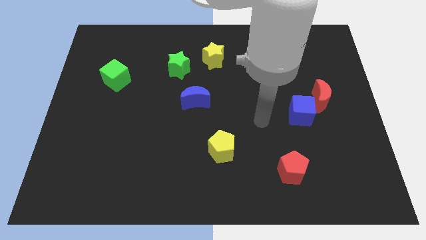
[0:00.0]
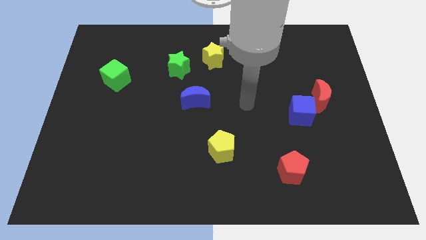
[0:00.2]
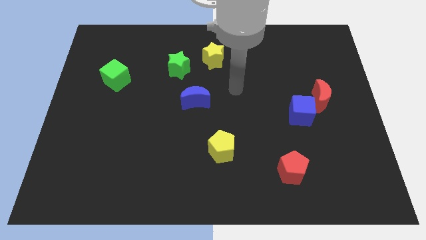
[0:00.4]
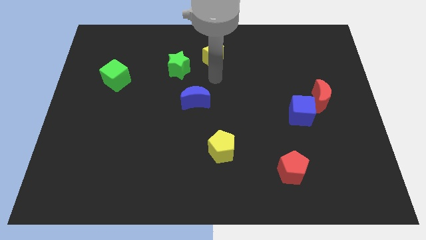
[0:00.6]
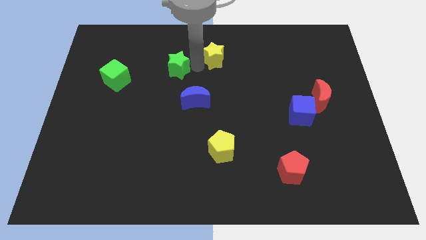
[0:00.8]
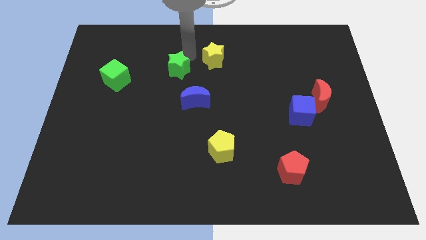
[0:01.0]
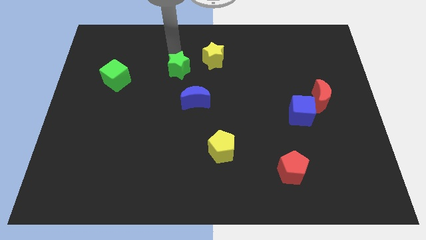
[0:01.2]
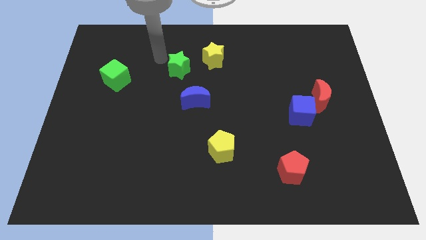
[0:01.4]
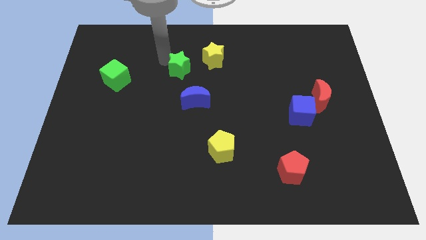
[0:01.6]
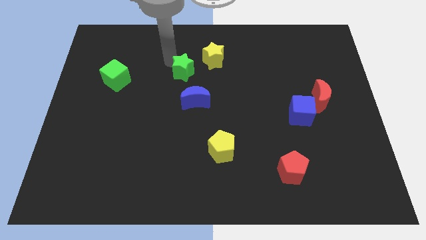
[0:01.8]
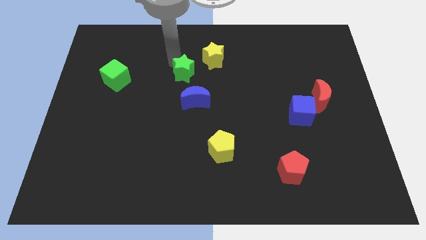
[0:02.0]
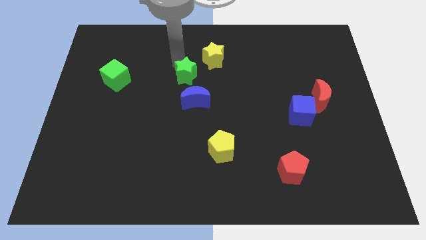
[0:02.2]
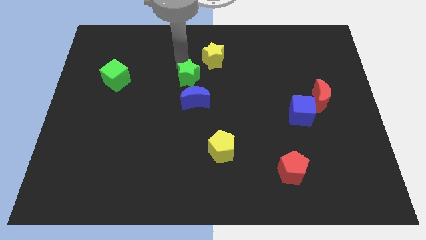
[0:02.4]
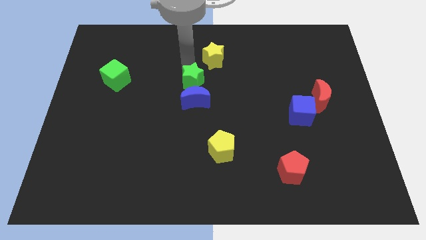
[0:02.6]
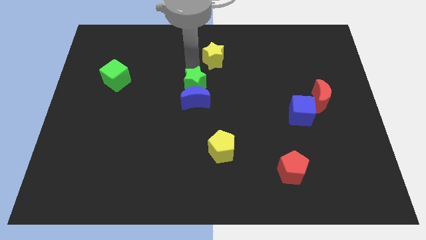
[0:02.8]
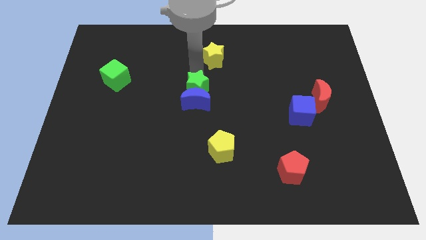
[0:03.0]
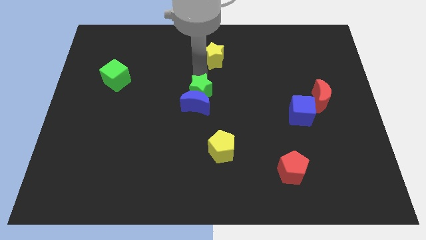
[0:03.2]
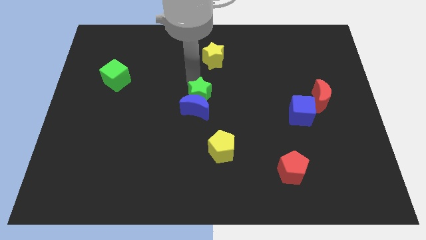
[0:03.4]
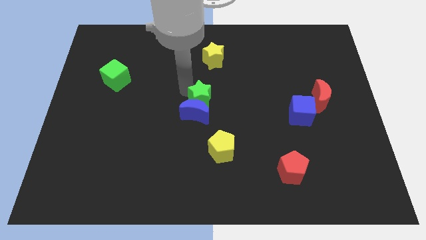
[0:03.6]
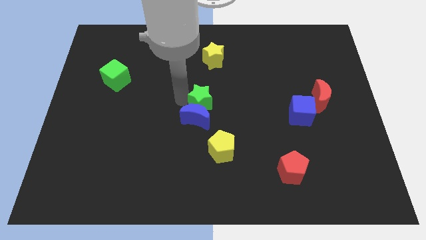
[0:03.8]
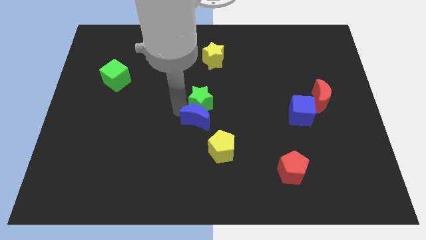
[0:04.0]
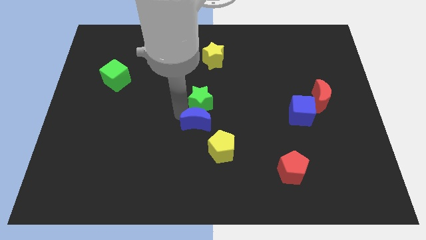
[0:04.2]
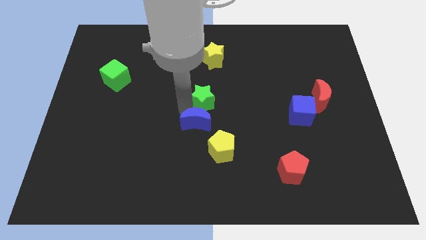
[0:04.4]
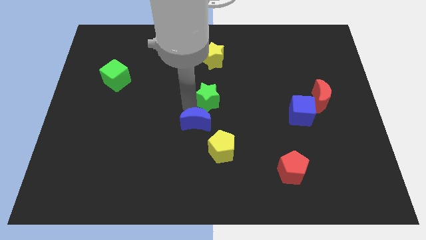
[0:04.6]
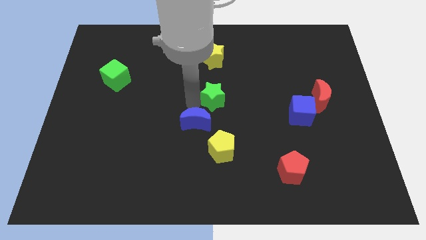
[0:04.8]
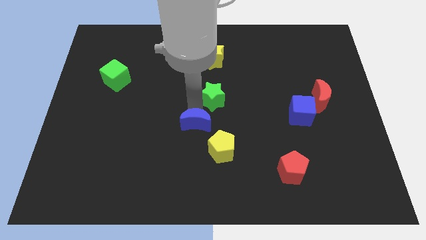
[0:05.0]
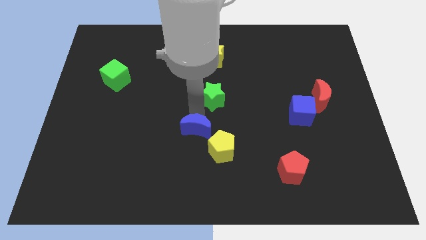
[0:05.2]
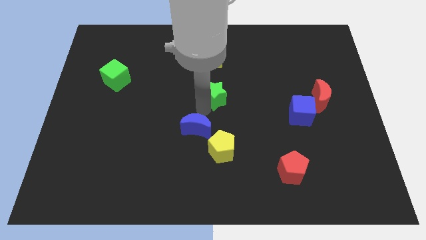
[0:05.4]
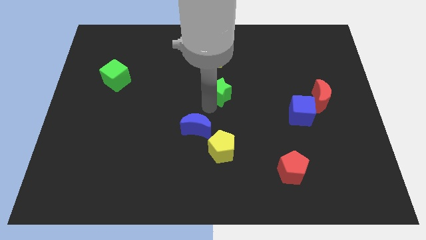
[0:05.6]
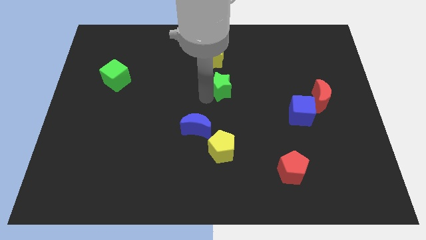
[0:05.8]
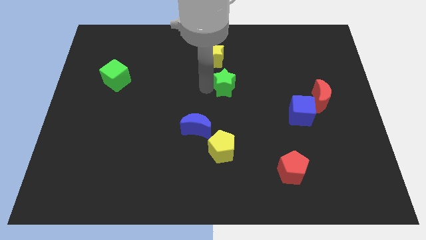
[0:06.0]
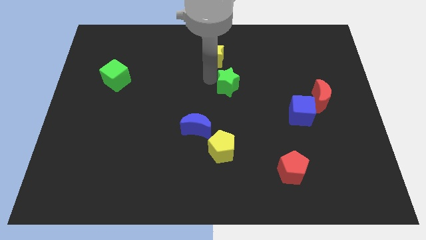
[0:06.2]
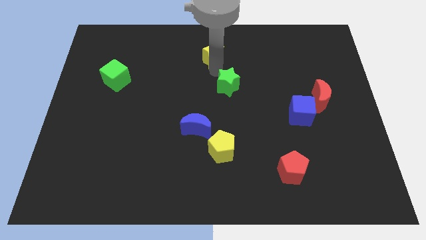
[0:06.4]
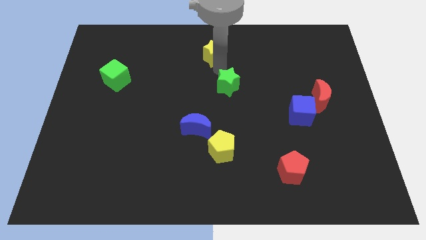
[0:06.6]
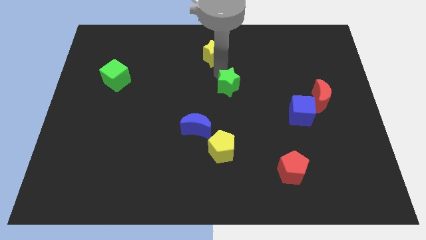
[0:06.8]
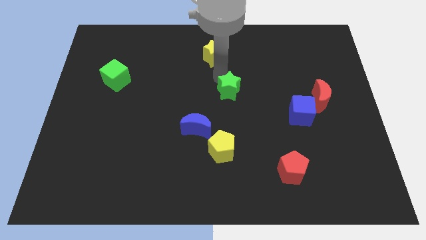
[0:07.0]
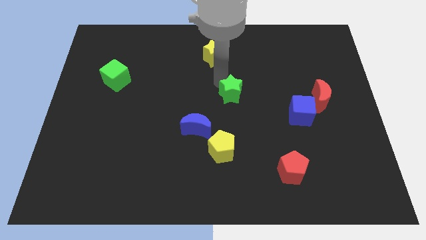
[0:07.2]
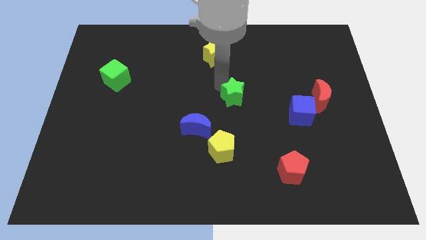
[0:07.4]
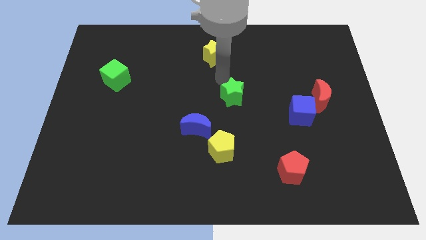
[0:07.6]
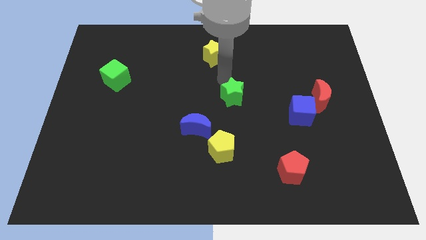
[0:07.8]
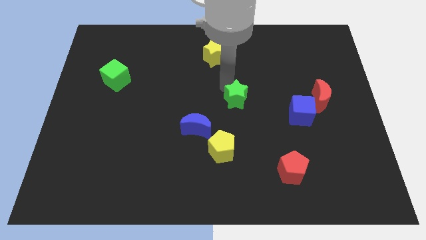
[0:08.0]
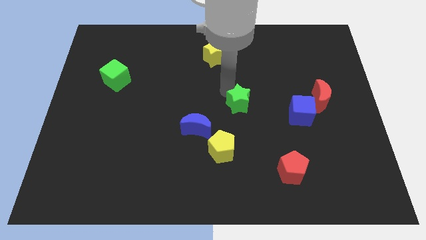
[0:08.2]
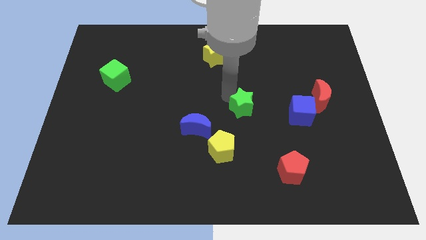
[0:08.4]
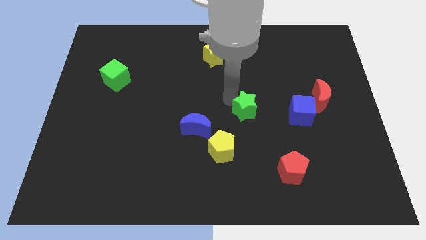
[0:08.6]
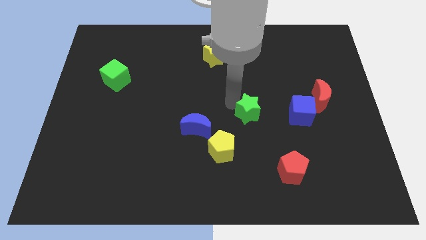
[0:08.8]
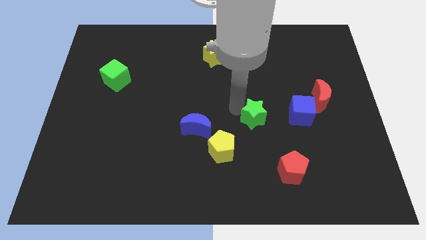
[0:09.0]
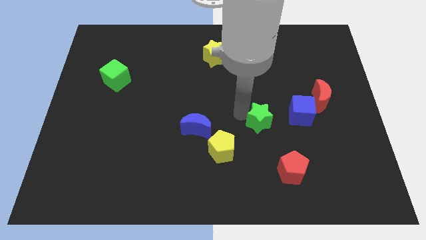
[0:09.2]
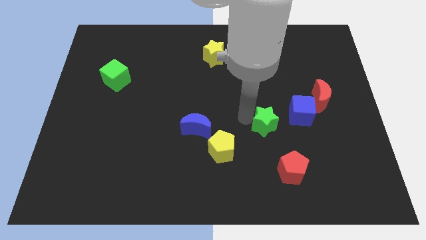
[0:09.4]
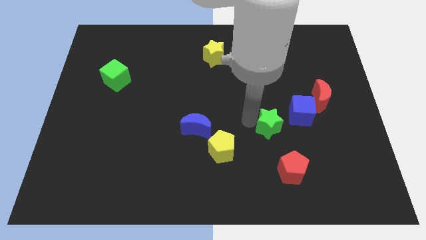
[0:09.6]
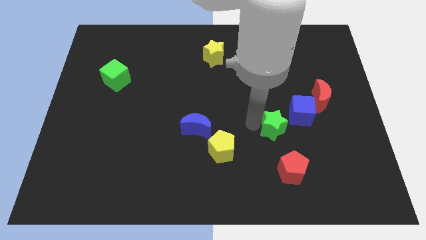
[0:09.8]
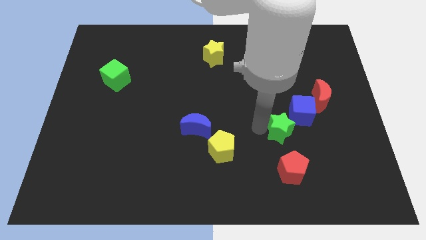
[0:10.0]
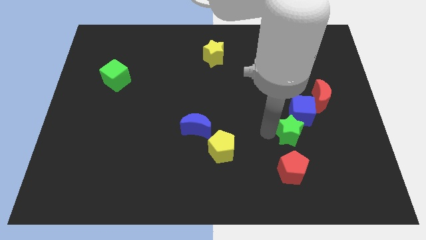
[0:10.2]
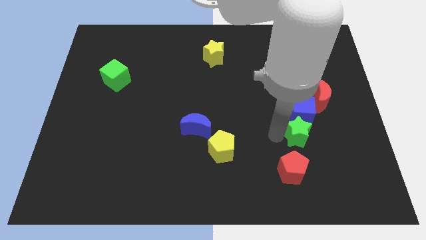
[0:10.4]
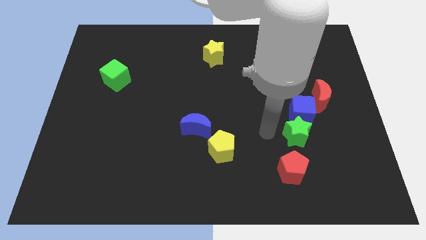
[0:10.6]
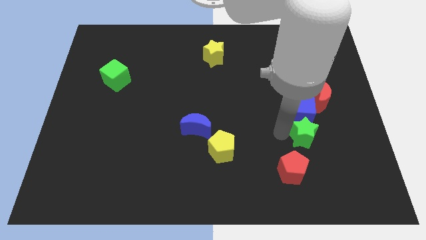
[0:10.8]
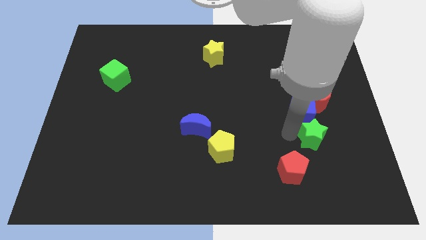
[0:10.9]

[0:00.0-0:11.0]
move the green star below the red moon

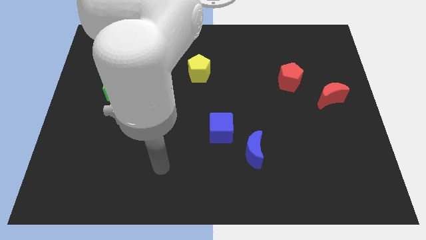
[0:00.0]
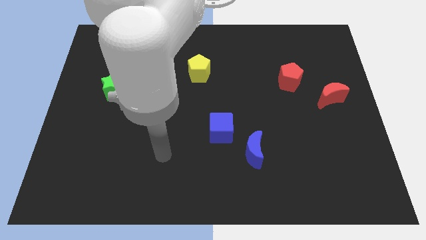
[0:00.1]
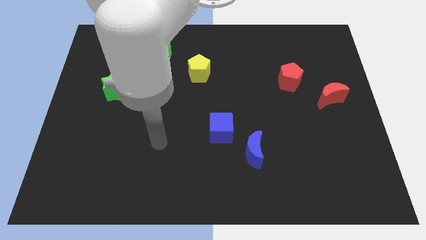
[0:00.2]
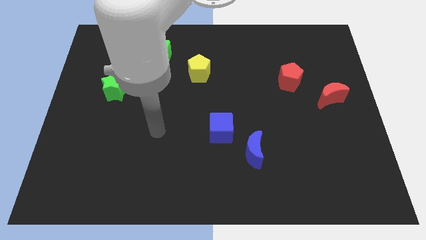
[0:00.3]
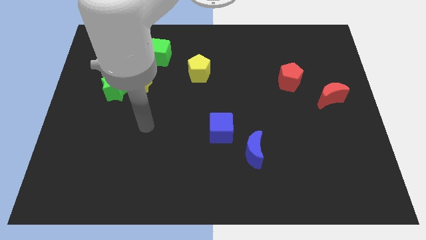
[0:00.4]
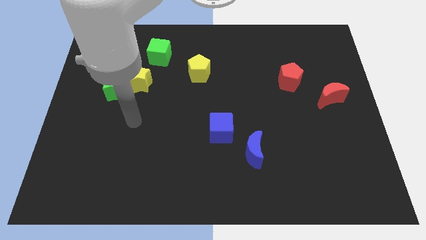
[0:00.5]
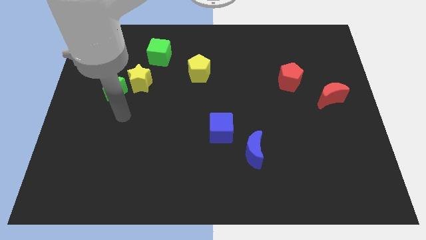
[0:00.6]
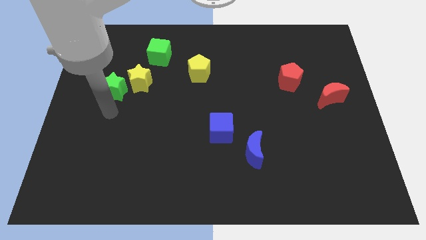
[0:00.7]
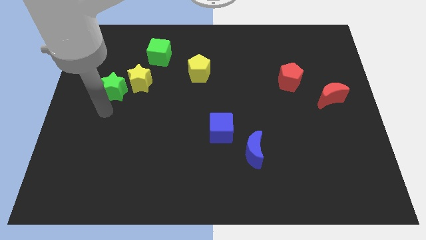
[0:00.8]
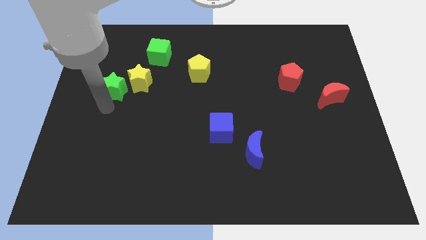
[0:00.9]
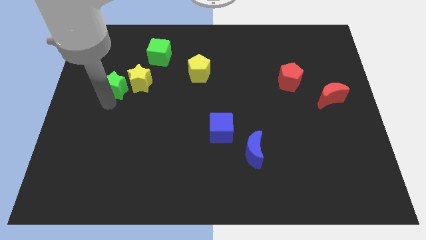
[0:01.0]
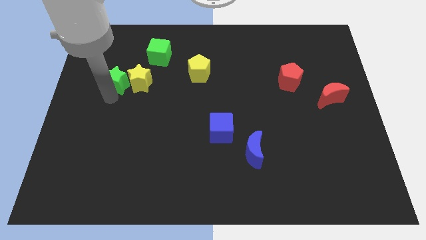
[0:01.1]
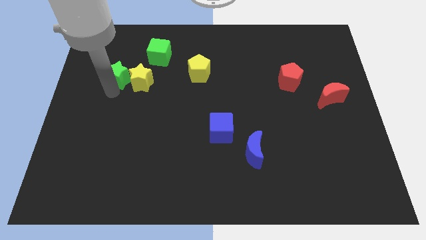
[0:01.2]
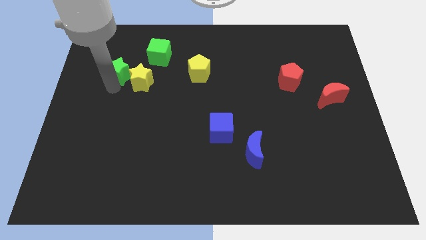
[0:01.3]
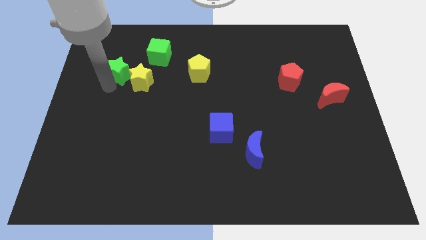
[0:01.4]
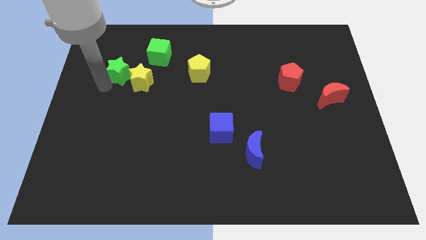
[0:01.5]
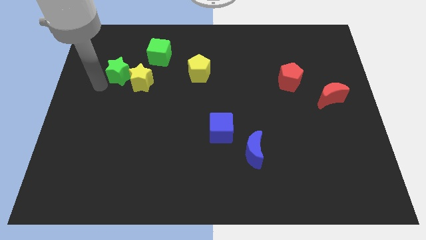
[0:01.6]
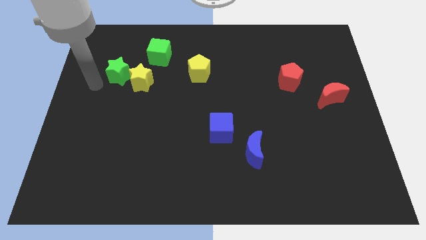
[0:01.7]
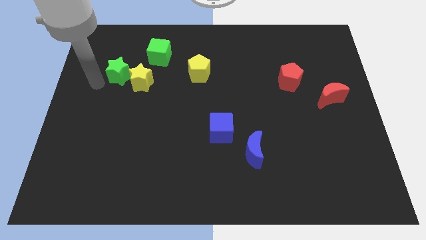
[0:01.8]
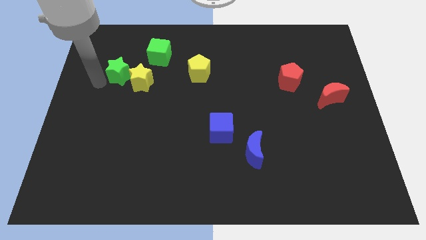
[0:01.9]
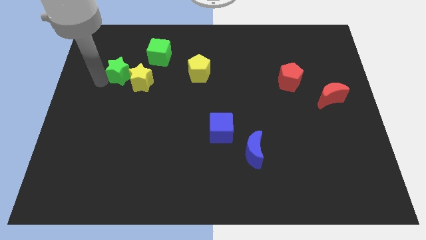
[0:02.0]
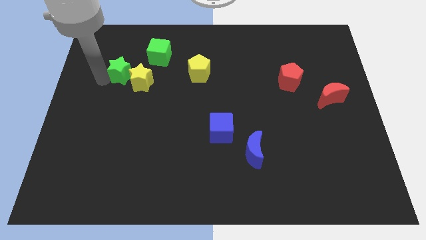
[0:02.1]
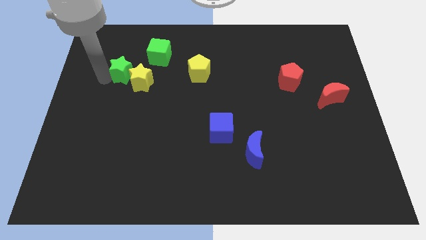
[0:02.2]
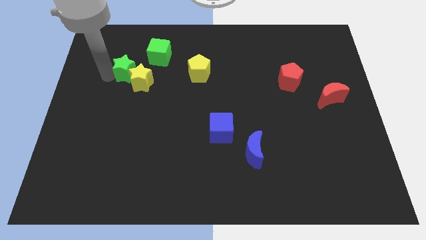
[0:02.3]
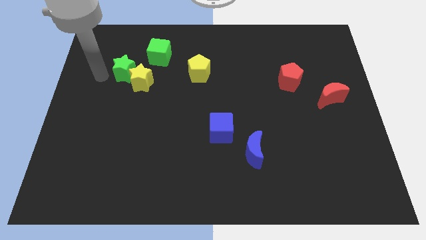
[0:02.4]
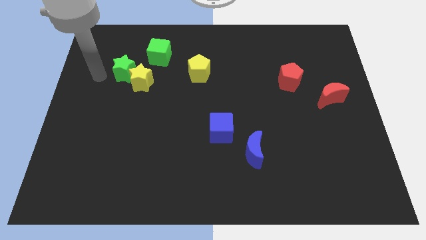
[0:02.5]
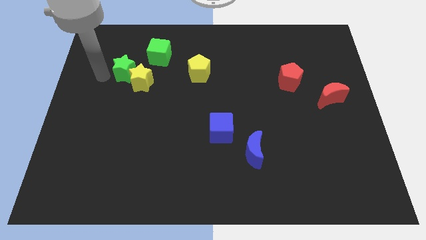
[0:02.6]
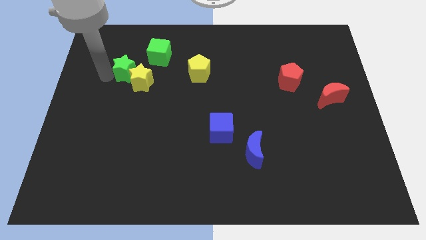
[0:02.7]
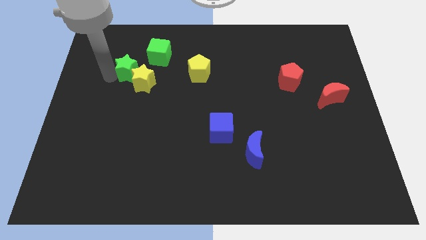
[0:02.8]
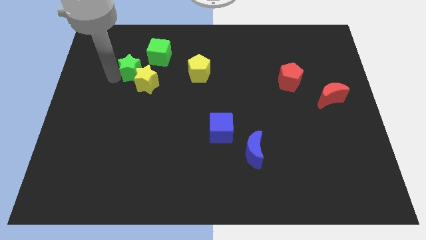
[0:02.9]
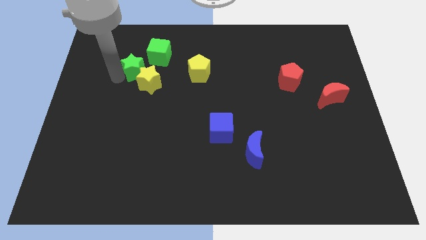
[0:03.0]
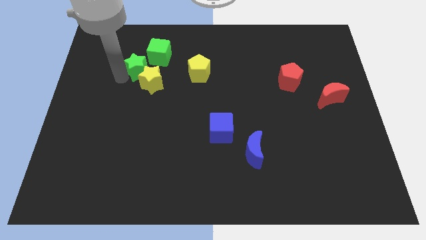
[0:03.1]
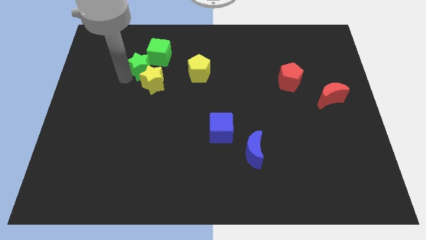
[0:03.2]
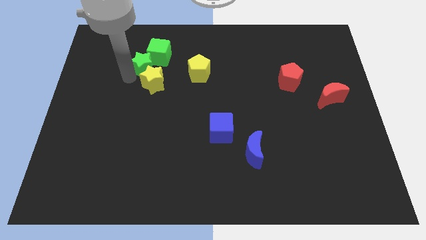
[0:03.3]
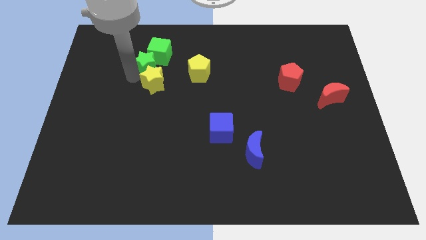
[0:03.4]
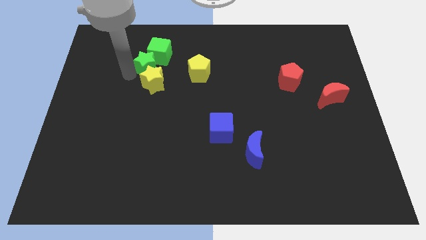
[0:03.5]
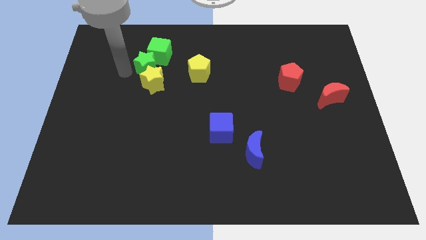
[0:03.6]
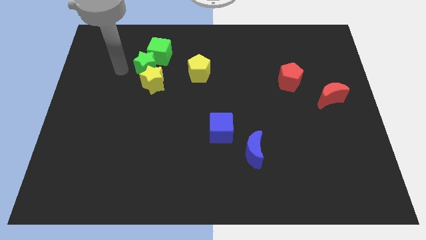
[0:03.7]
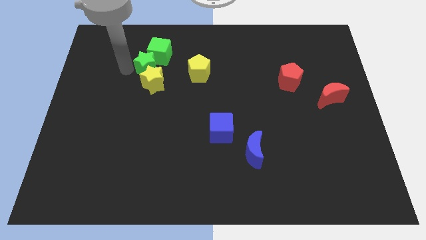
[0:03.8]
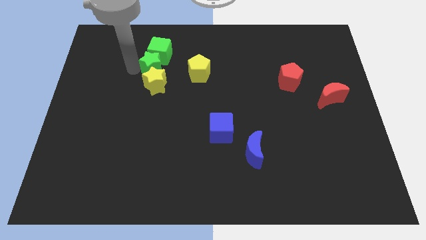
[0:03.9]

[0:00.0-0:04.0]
slide the green star diagonally up and to the right of the yellow star
